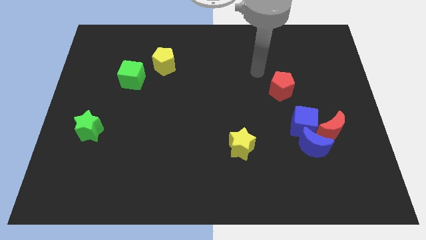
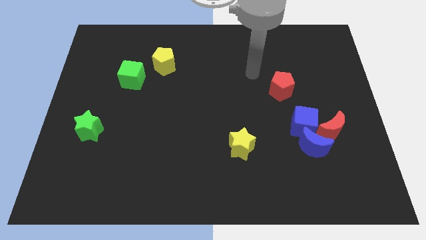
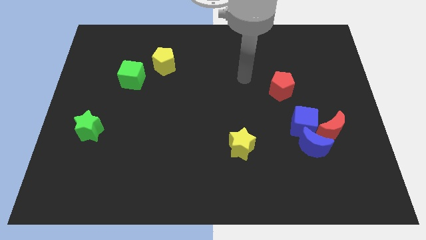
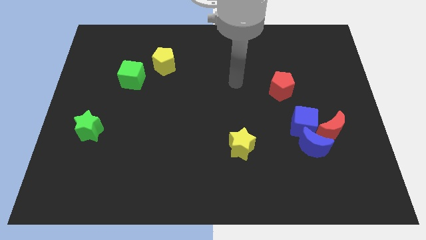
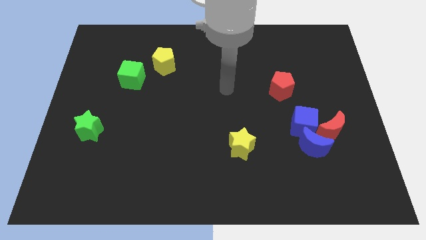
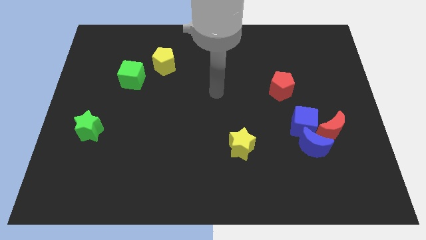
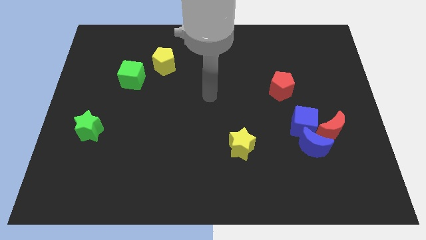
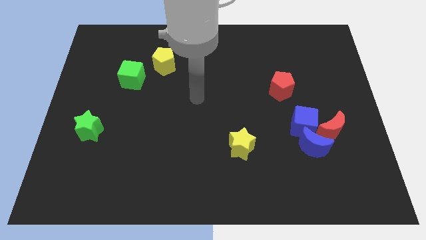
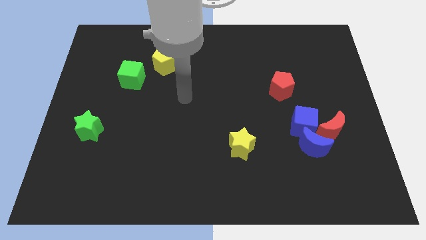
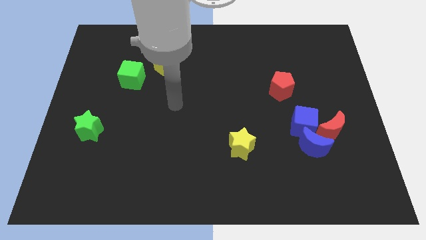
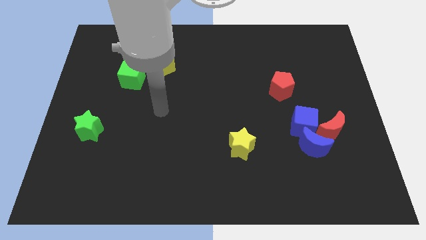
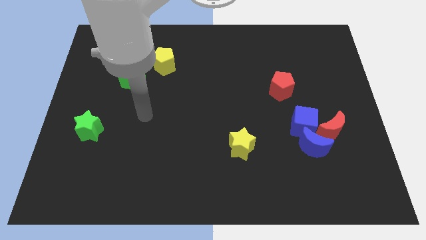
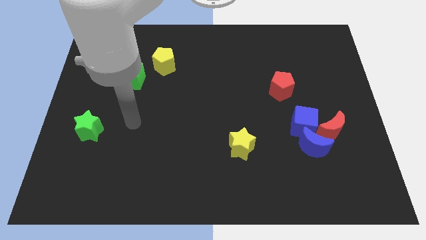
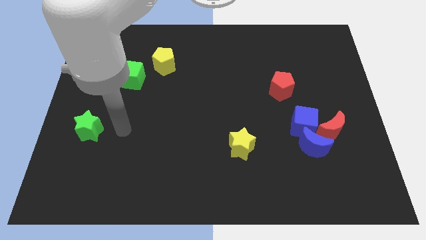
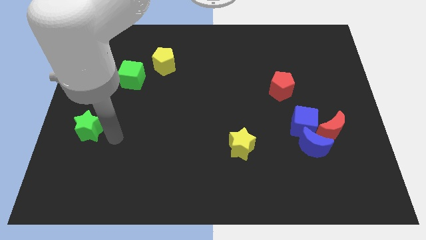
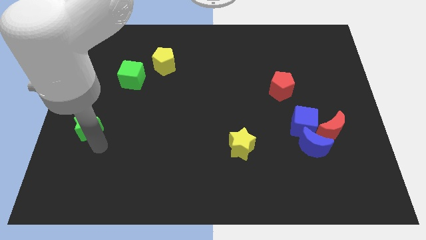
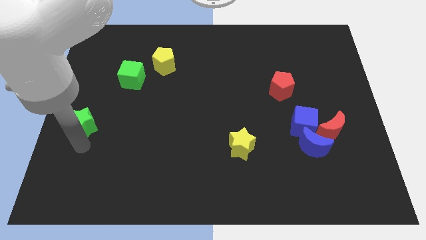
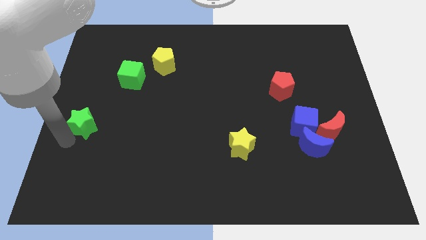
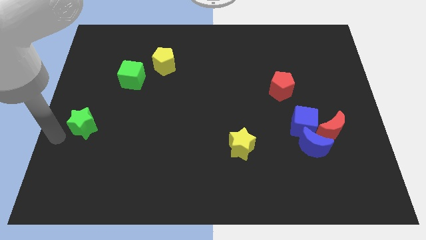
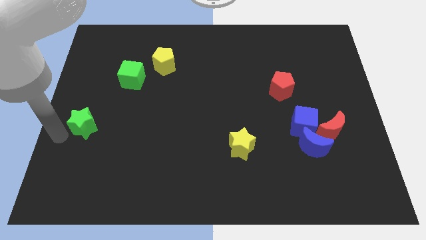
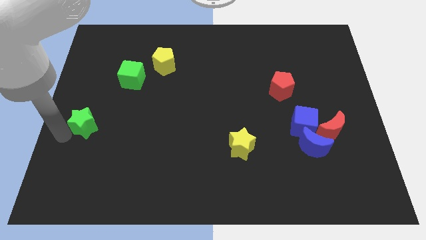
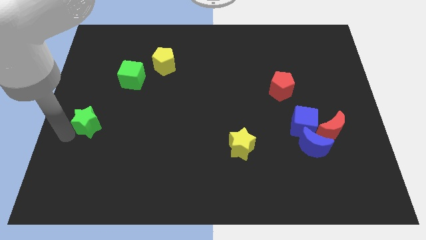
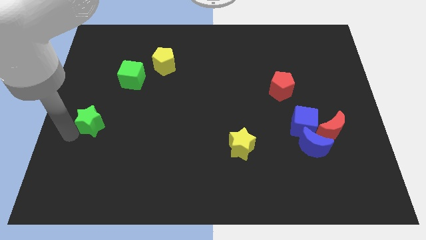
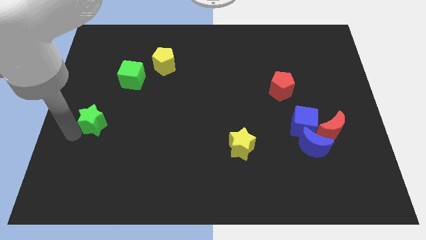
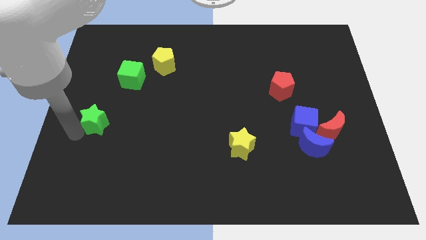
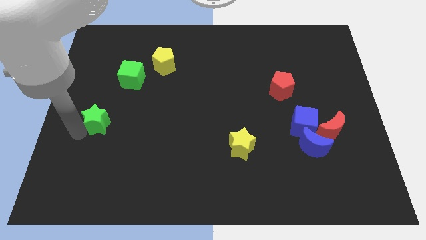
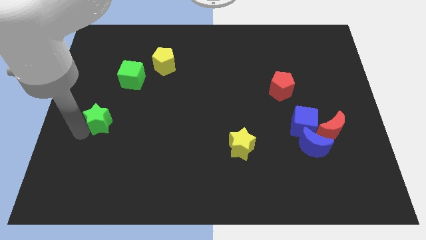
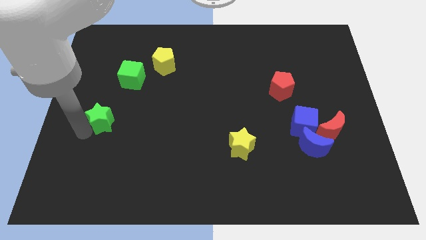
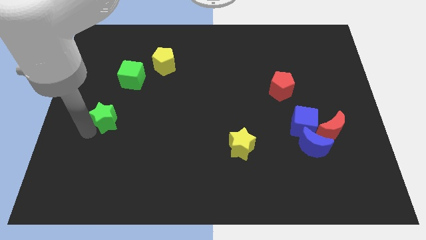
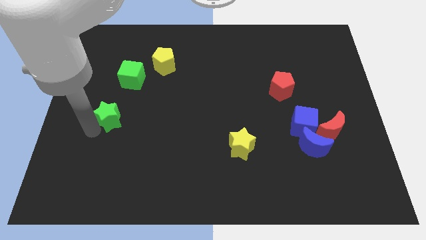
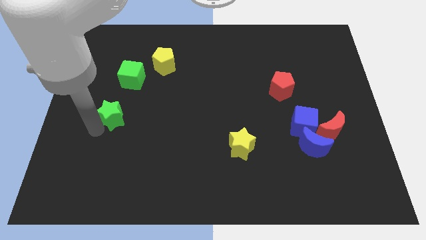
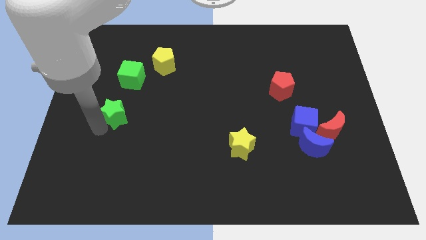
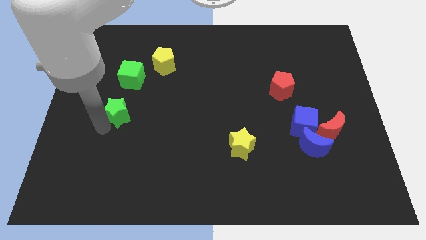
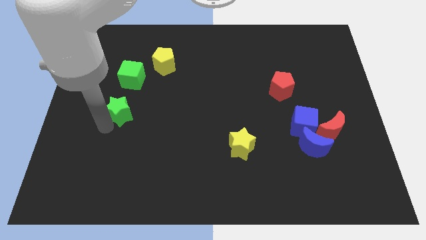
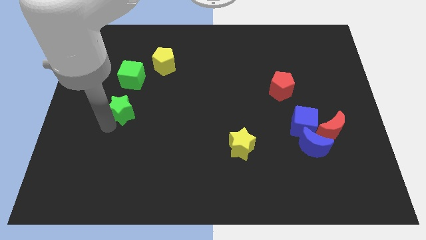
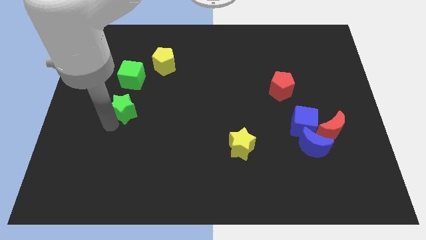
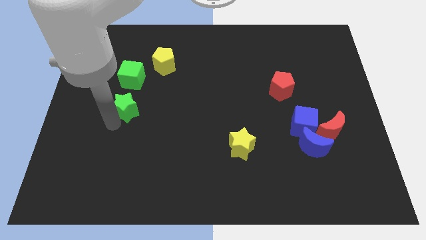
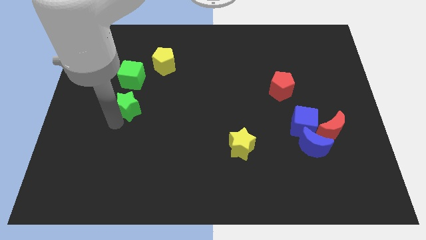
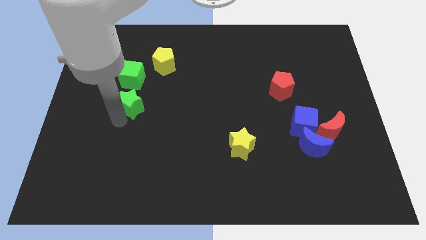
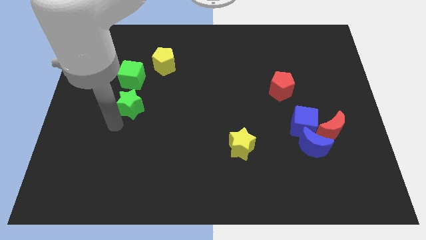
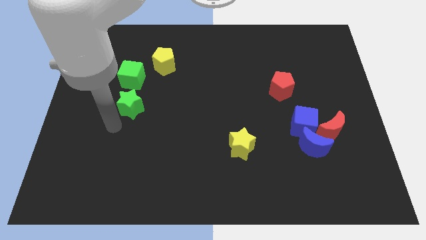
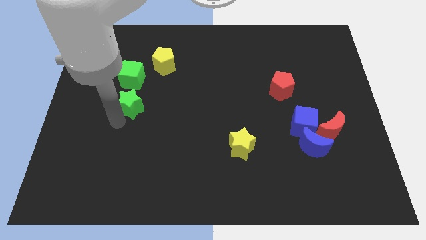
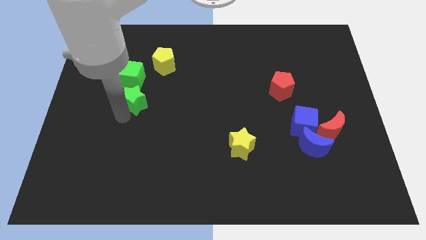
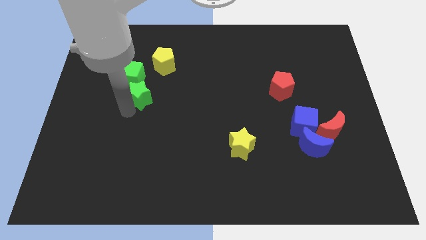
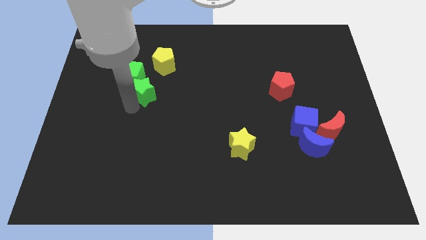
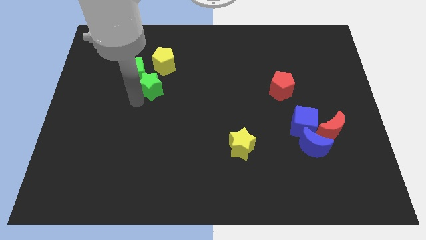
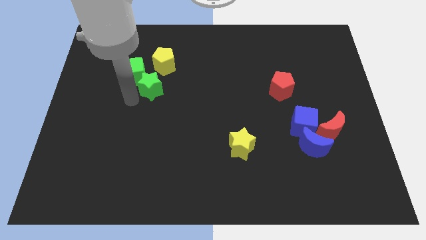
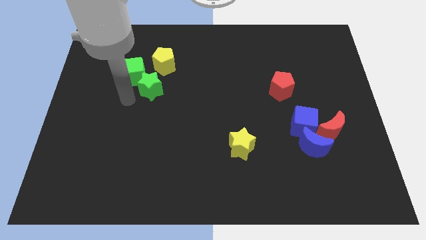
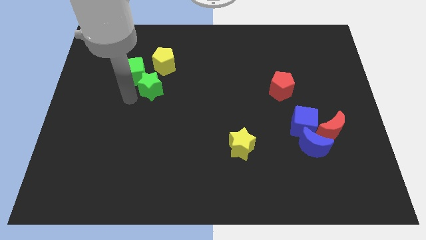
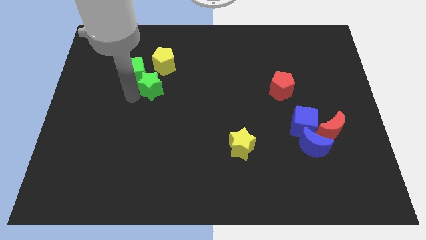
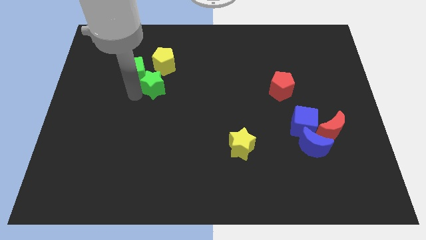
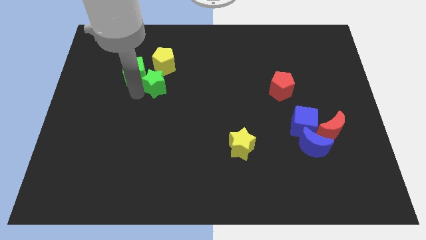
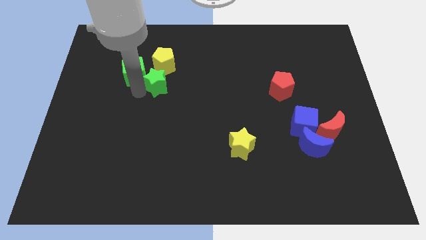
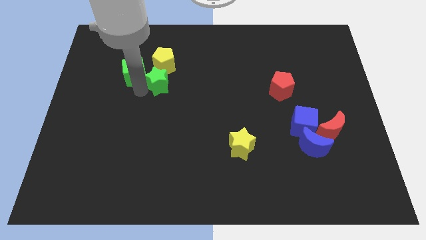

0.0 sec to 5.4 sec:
slide the green star up and right

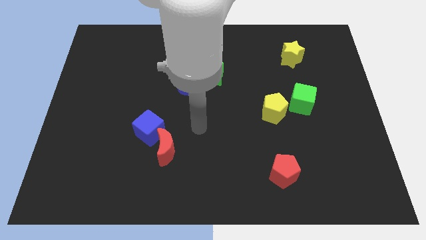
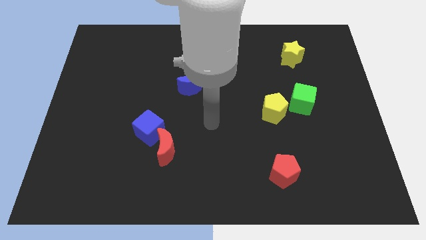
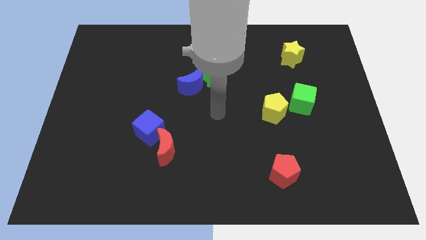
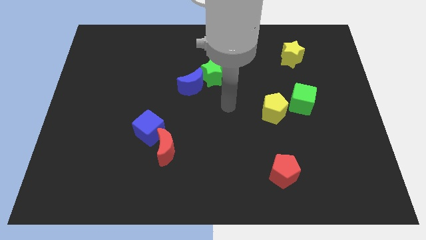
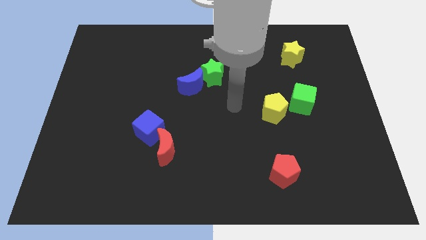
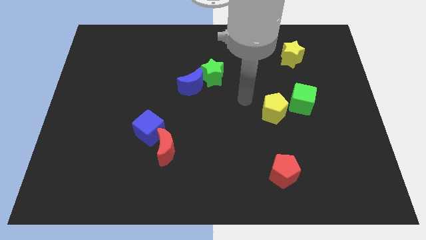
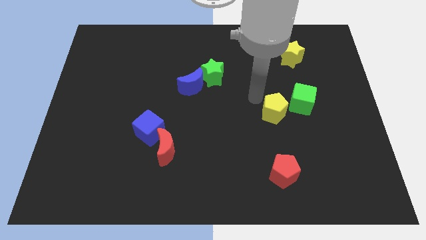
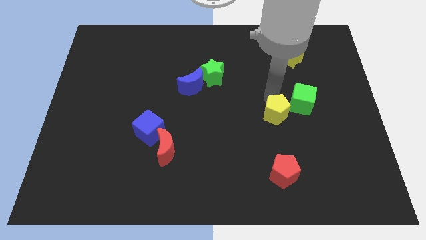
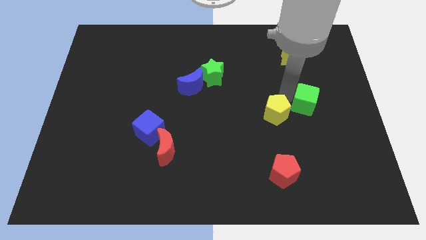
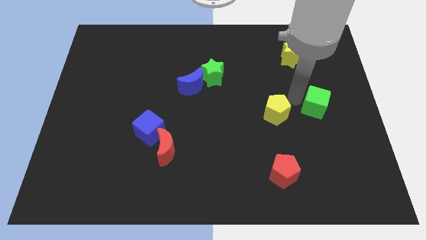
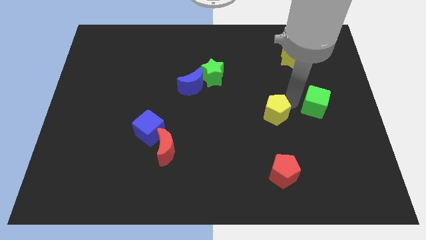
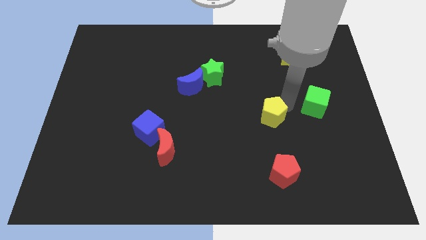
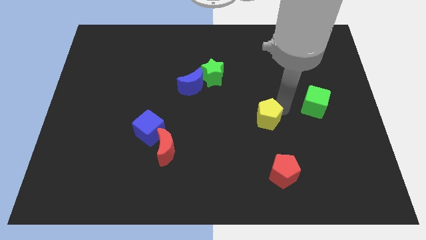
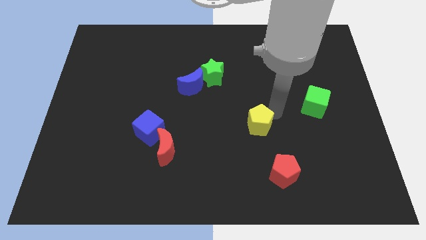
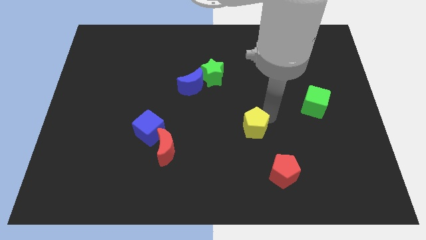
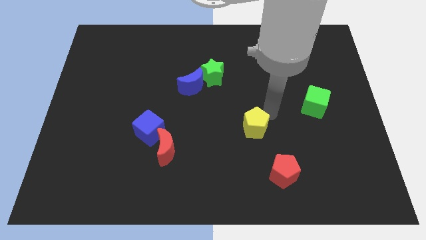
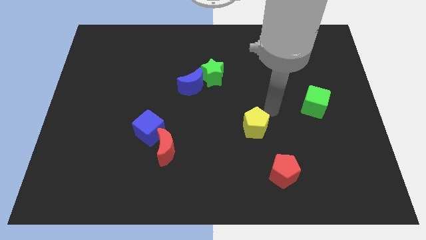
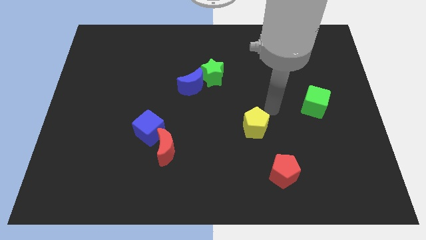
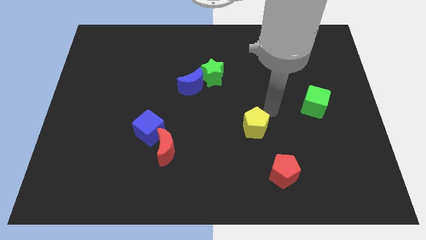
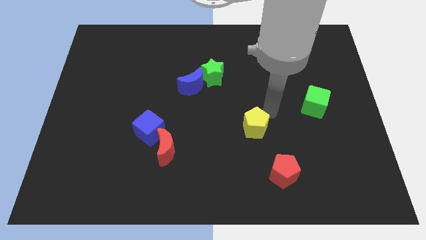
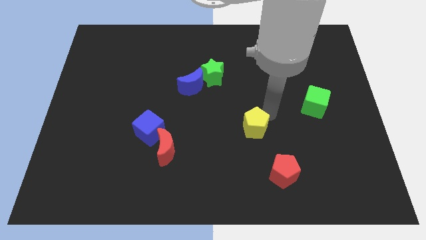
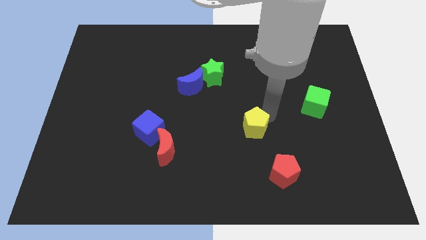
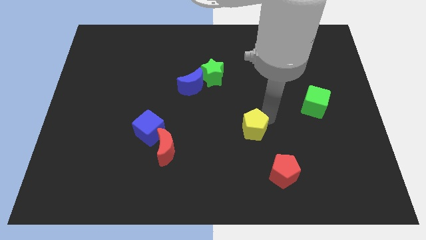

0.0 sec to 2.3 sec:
slightly push the yellow pentagon diagonally down and left

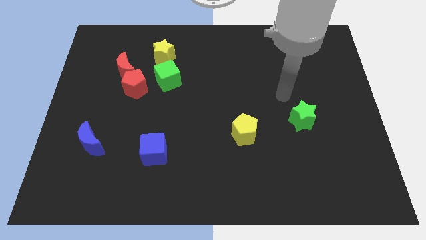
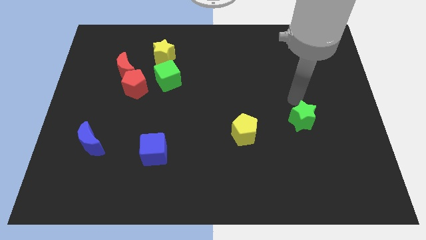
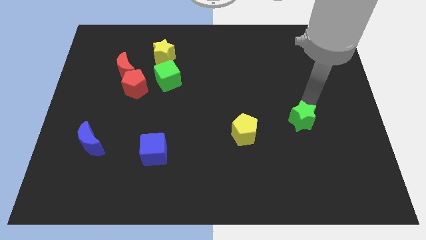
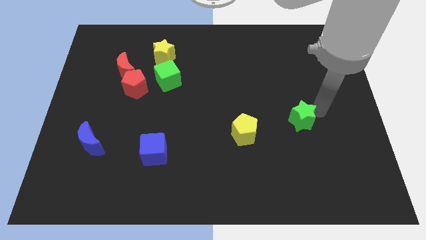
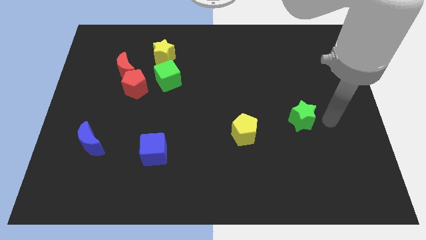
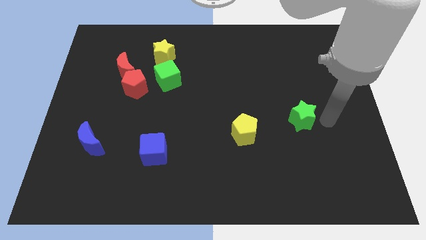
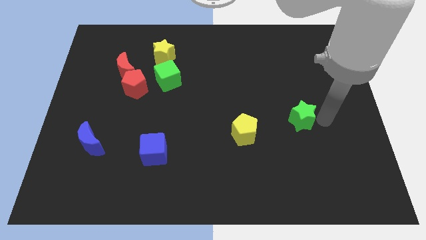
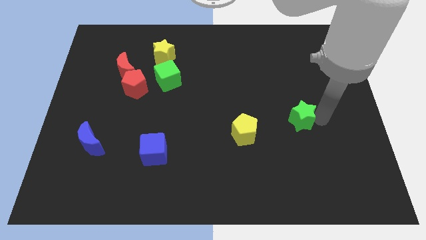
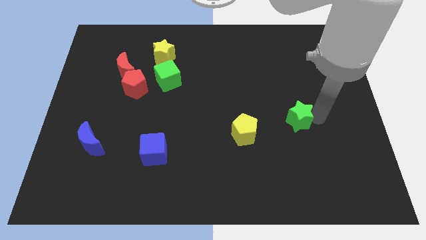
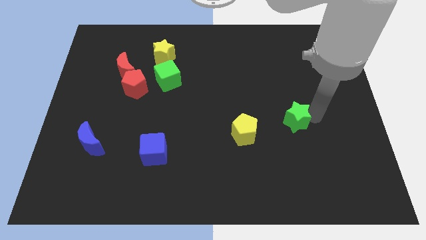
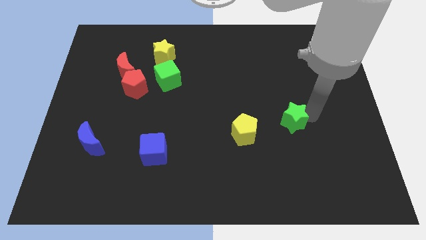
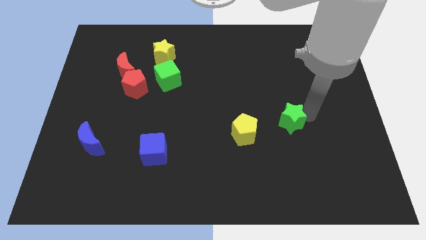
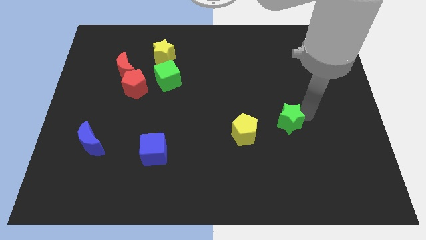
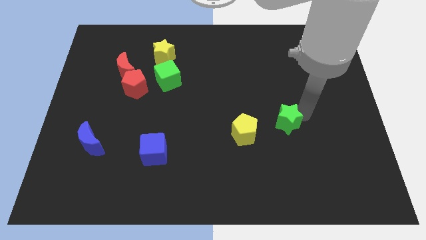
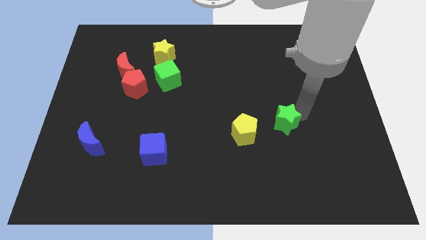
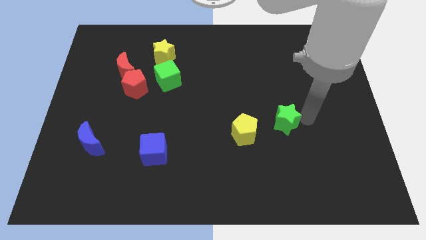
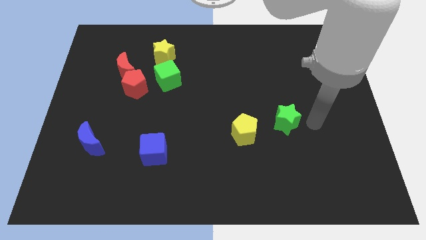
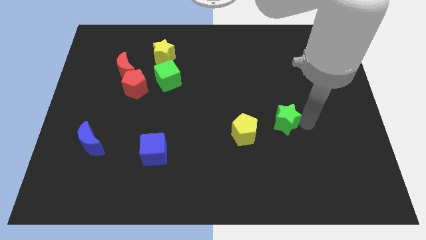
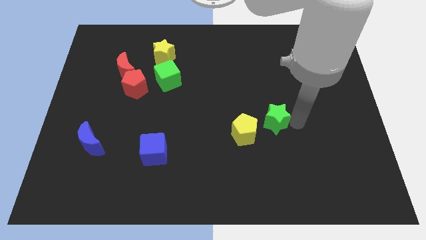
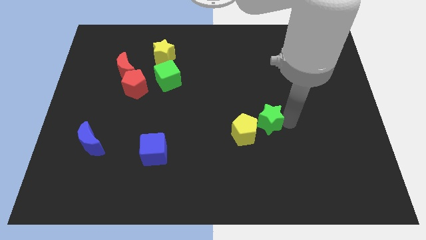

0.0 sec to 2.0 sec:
push the green star left a little
